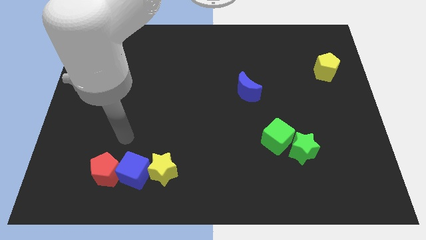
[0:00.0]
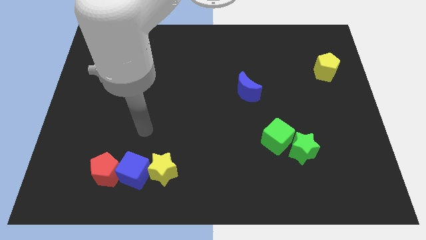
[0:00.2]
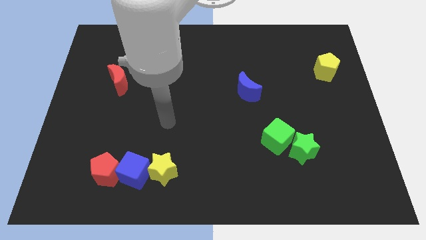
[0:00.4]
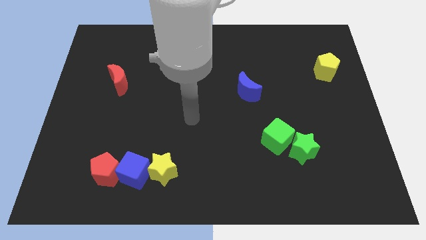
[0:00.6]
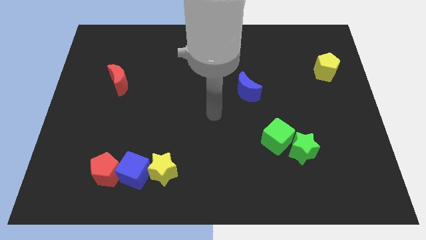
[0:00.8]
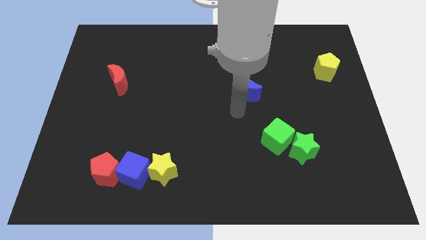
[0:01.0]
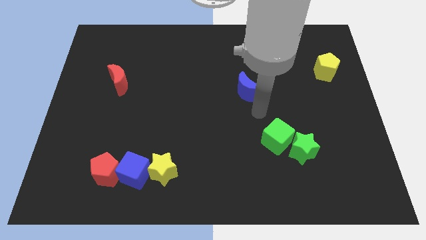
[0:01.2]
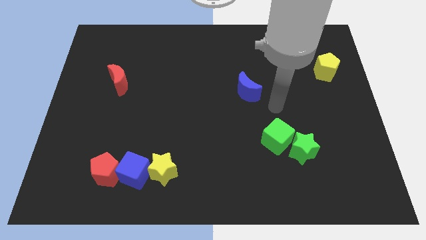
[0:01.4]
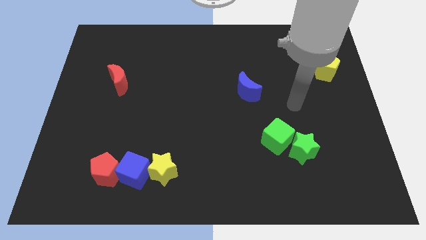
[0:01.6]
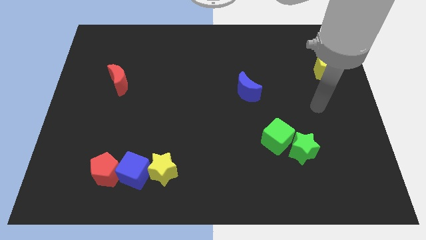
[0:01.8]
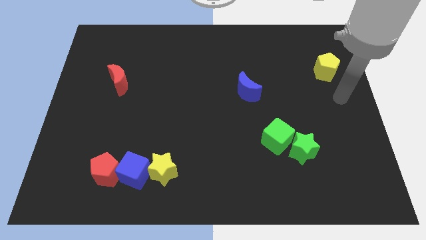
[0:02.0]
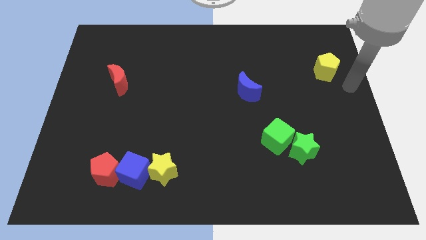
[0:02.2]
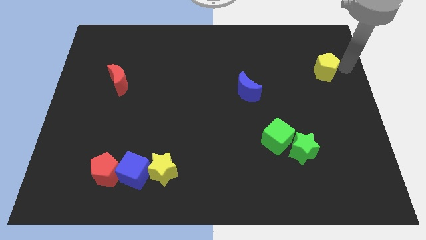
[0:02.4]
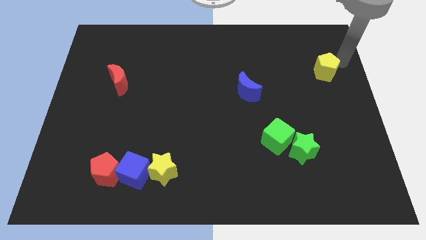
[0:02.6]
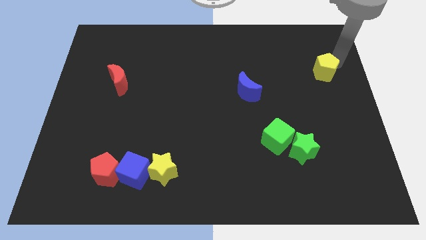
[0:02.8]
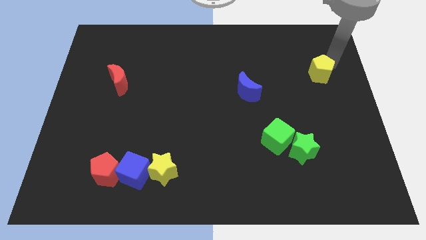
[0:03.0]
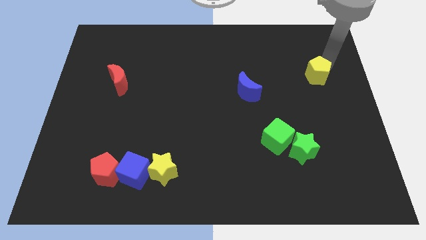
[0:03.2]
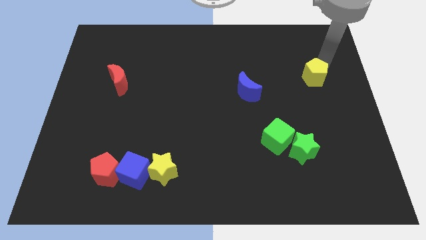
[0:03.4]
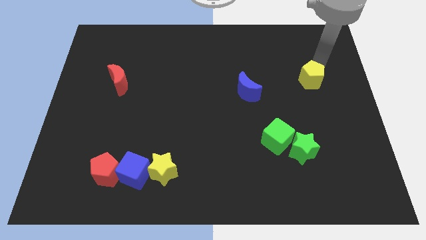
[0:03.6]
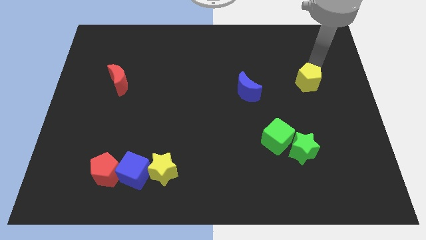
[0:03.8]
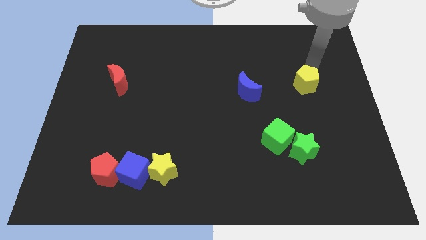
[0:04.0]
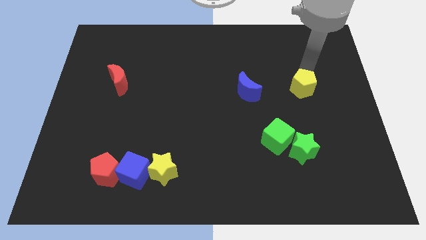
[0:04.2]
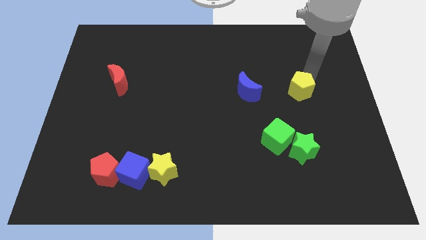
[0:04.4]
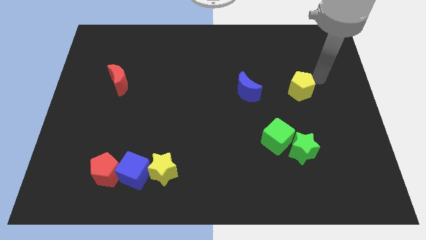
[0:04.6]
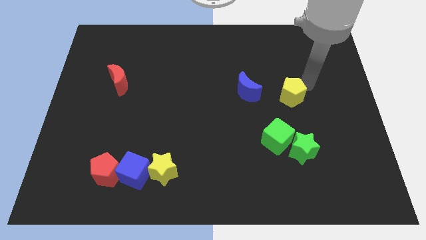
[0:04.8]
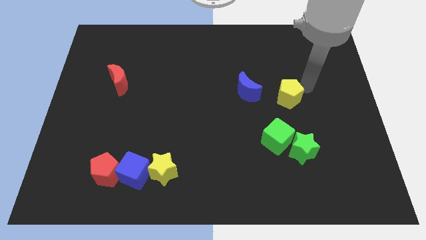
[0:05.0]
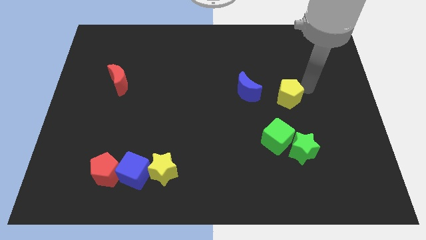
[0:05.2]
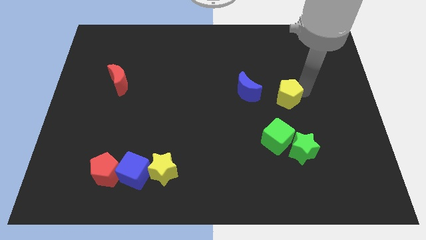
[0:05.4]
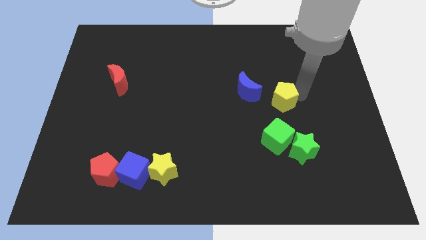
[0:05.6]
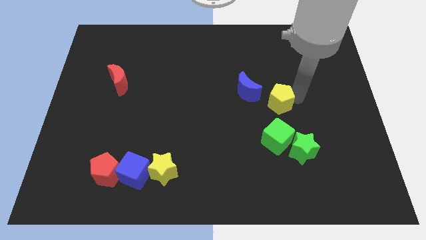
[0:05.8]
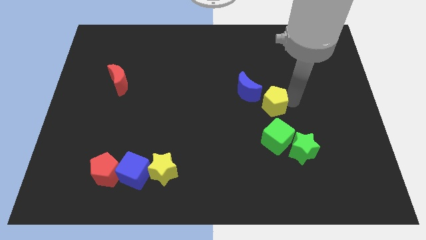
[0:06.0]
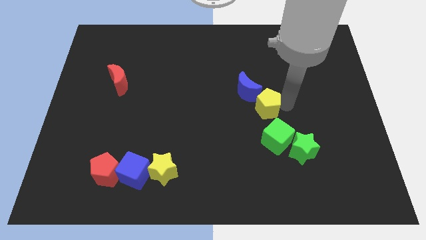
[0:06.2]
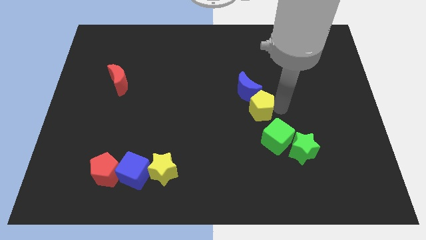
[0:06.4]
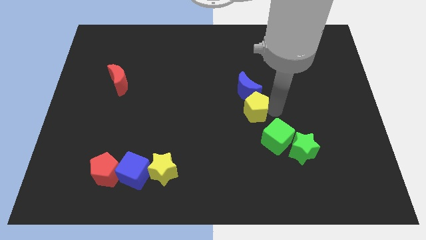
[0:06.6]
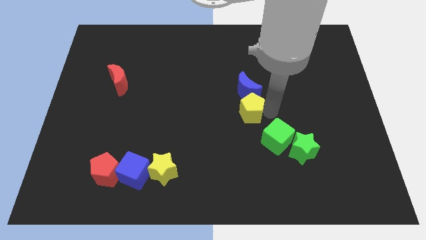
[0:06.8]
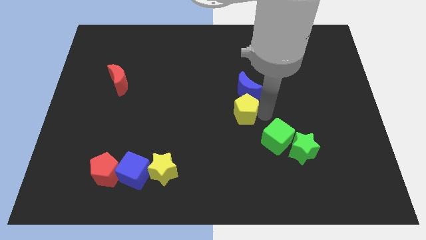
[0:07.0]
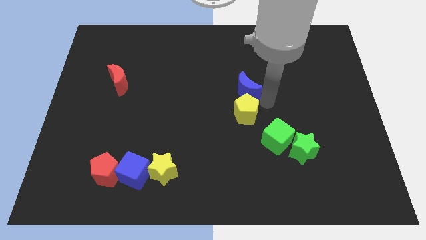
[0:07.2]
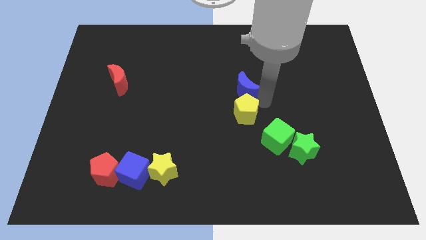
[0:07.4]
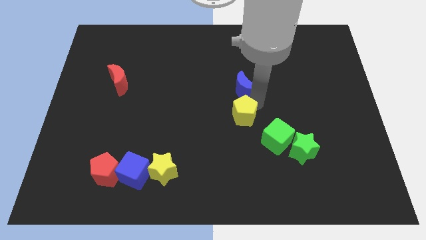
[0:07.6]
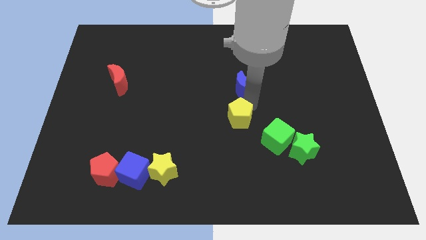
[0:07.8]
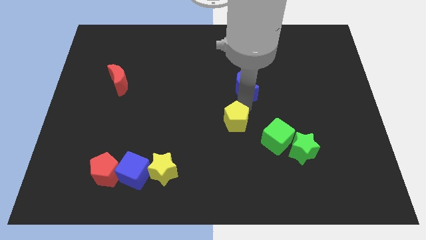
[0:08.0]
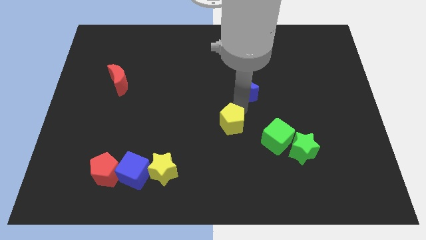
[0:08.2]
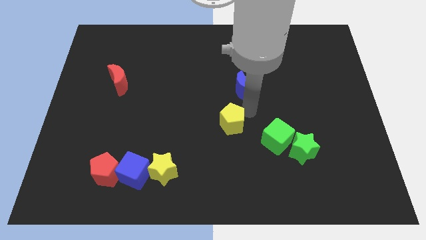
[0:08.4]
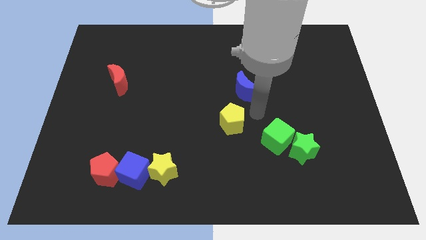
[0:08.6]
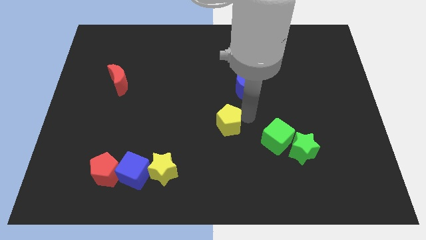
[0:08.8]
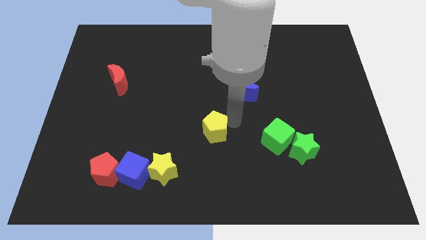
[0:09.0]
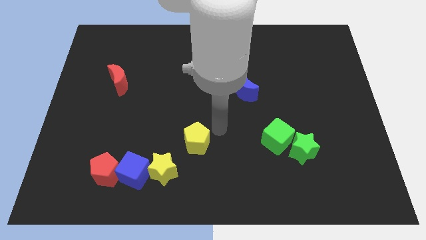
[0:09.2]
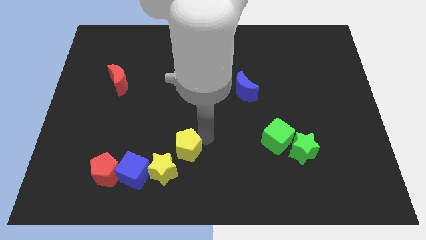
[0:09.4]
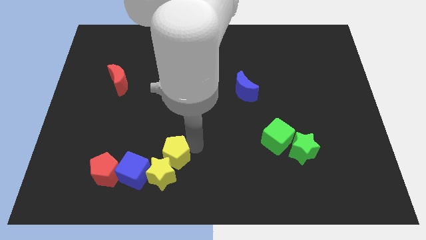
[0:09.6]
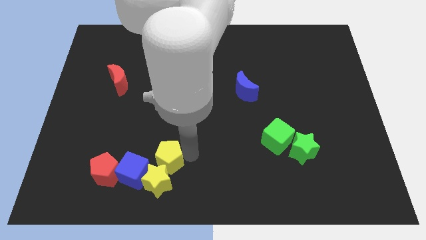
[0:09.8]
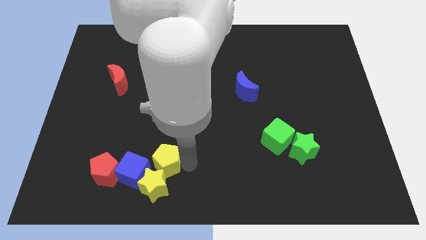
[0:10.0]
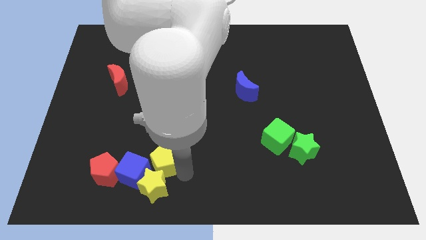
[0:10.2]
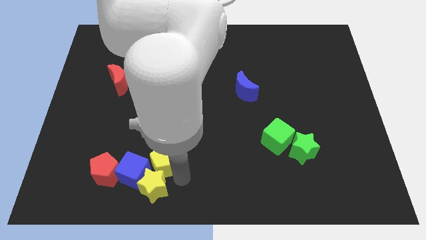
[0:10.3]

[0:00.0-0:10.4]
put the yellow pentagon close to the blue cube

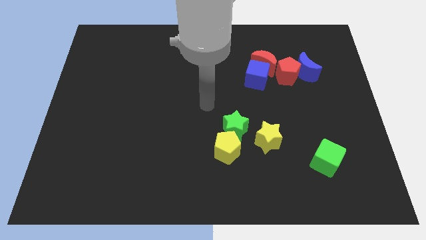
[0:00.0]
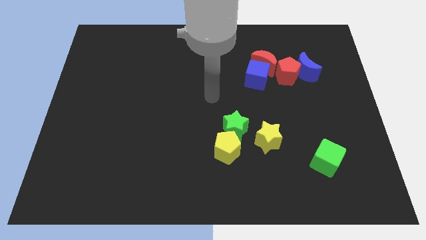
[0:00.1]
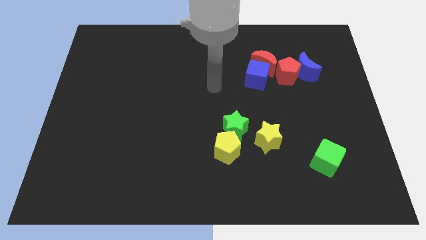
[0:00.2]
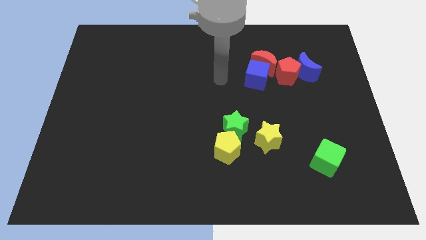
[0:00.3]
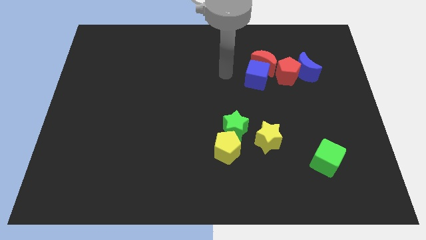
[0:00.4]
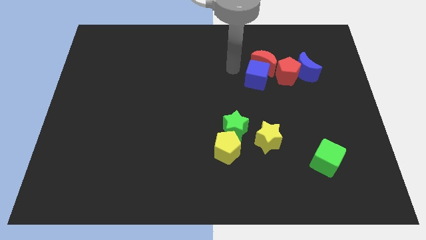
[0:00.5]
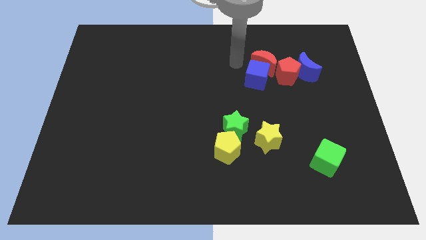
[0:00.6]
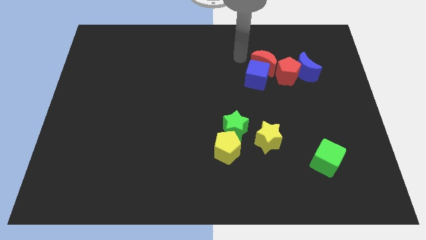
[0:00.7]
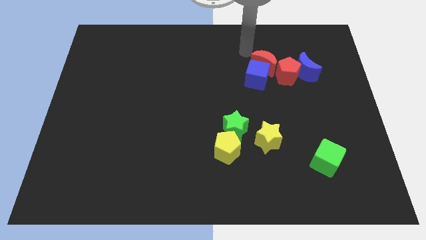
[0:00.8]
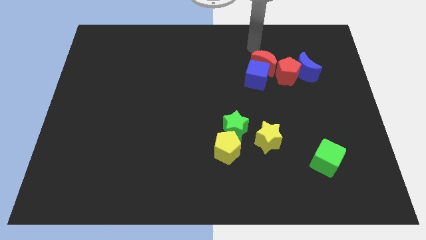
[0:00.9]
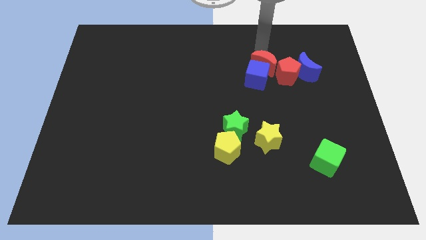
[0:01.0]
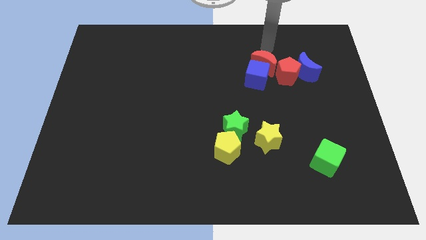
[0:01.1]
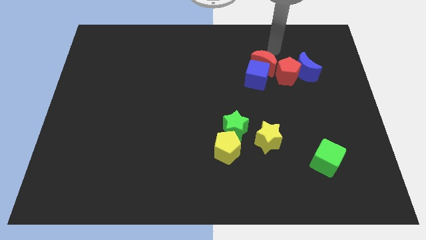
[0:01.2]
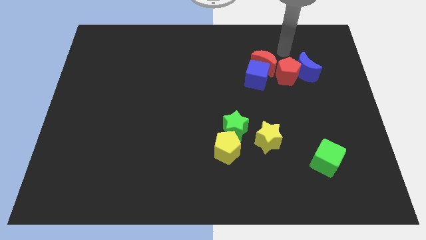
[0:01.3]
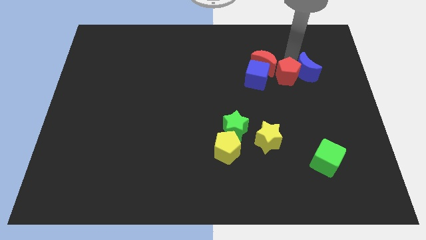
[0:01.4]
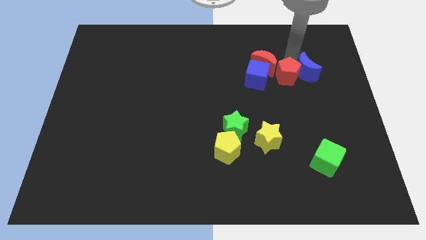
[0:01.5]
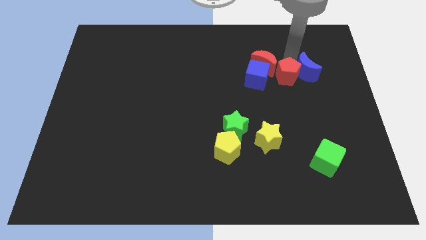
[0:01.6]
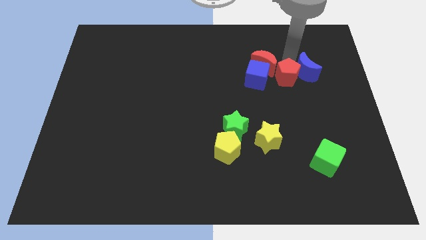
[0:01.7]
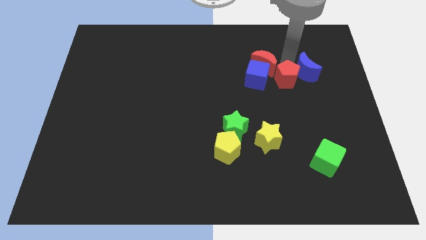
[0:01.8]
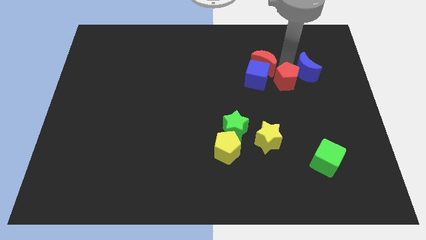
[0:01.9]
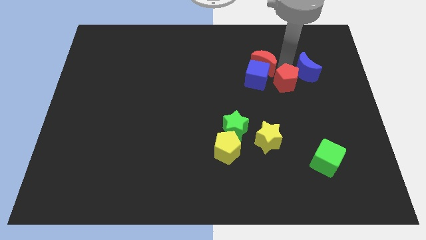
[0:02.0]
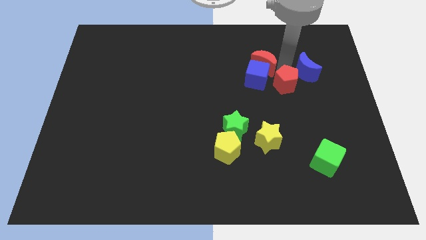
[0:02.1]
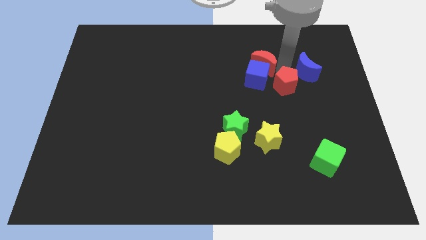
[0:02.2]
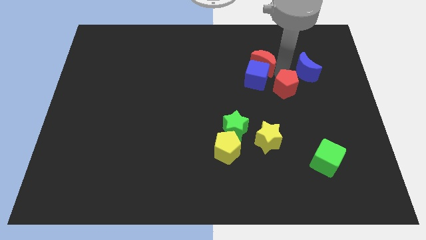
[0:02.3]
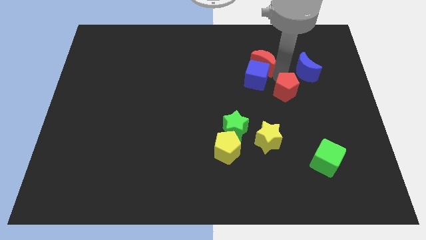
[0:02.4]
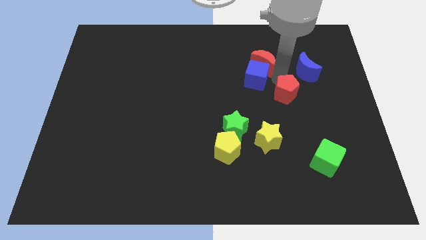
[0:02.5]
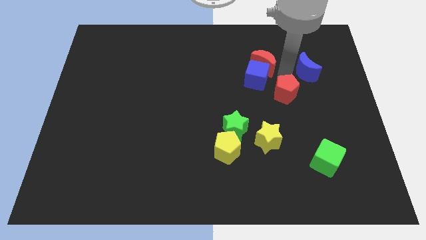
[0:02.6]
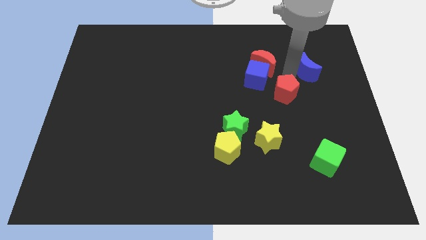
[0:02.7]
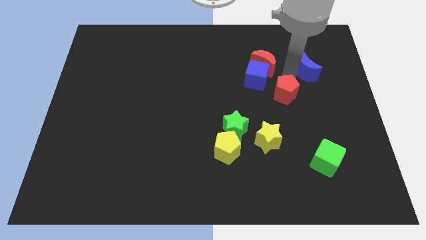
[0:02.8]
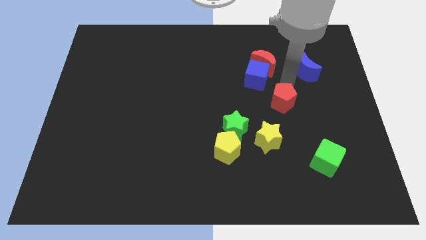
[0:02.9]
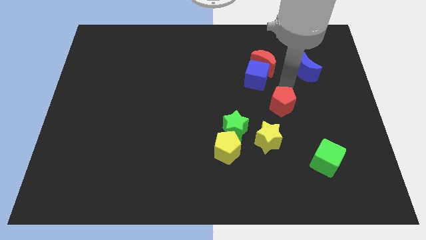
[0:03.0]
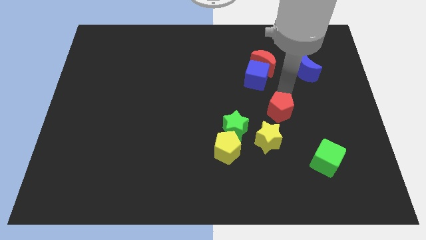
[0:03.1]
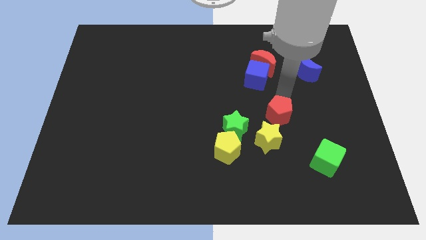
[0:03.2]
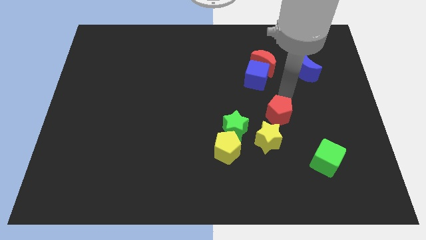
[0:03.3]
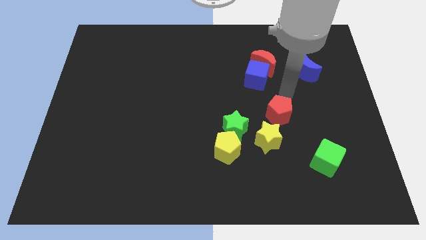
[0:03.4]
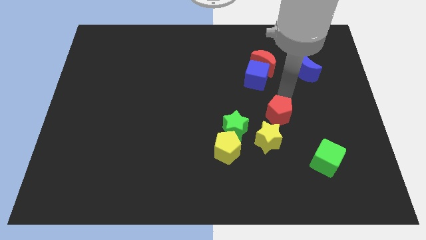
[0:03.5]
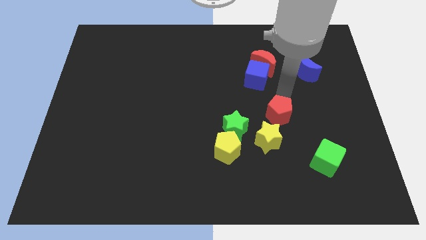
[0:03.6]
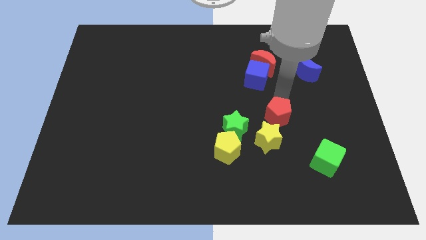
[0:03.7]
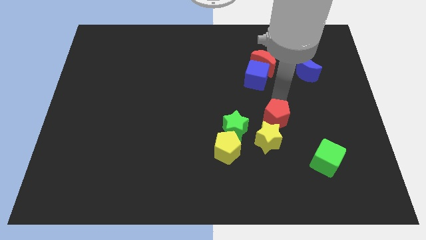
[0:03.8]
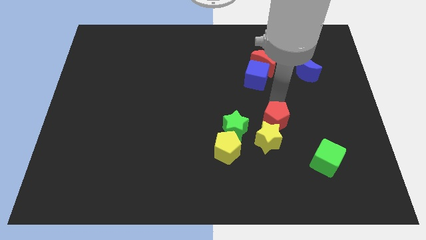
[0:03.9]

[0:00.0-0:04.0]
slide the red pentagon to the yellow star
